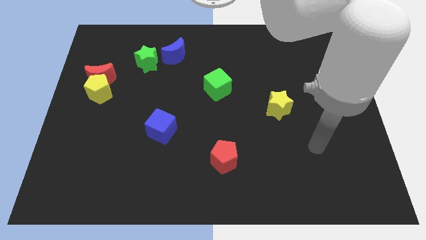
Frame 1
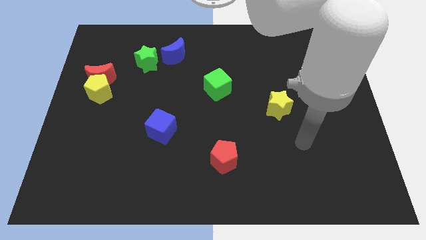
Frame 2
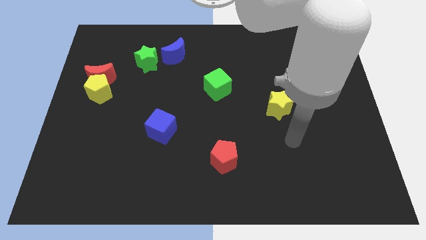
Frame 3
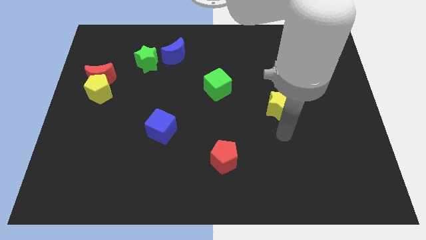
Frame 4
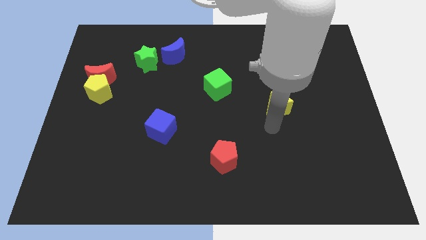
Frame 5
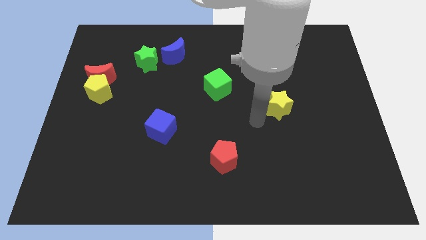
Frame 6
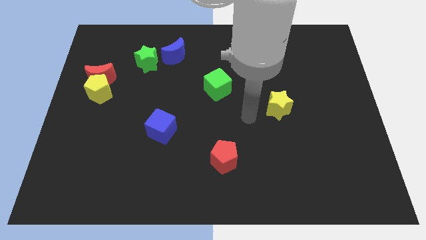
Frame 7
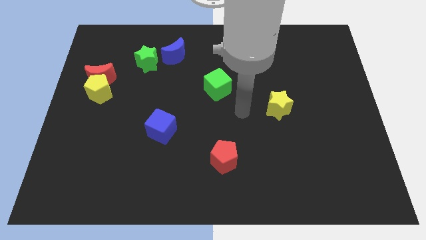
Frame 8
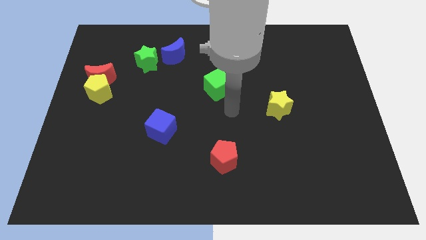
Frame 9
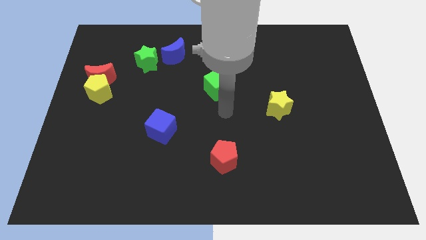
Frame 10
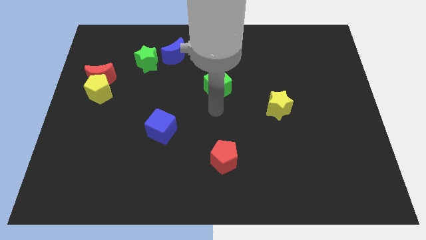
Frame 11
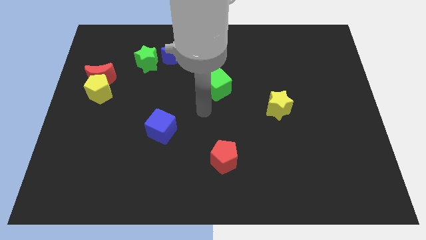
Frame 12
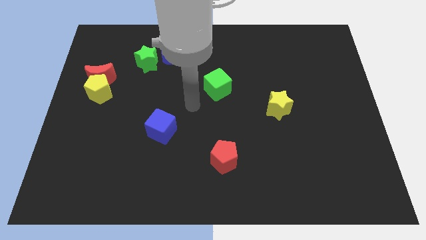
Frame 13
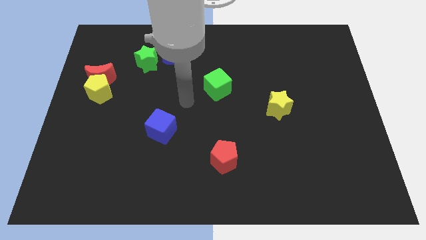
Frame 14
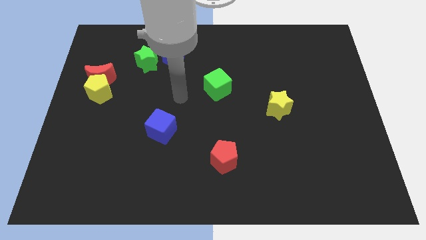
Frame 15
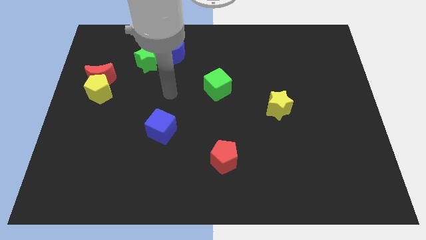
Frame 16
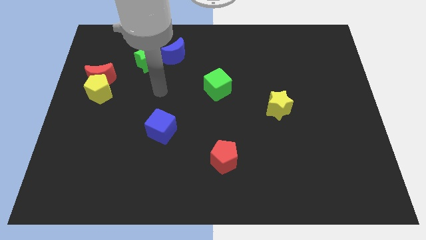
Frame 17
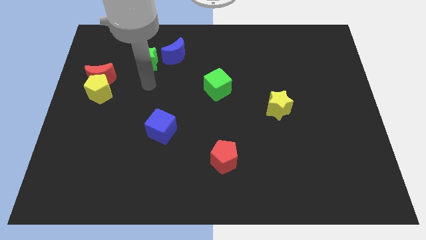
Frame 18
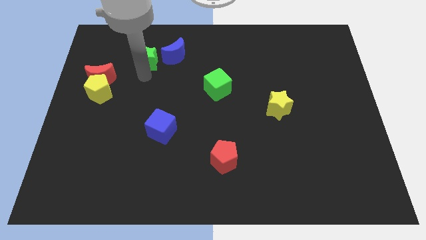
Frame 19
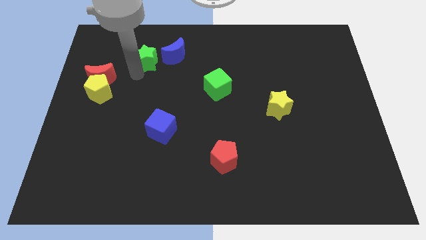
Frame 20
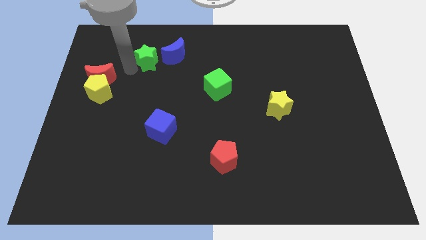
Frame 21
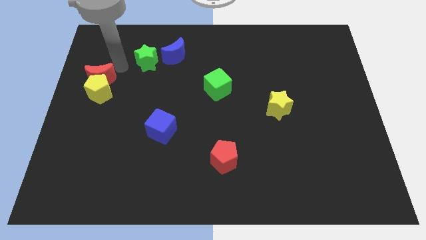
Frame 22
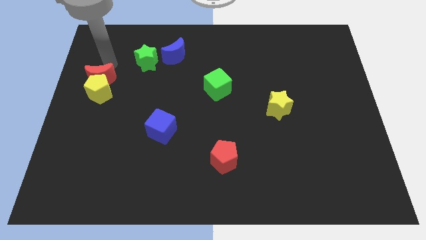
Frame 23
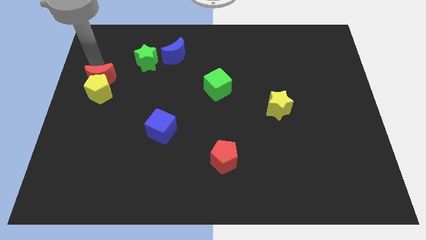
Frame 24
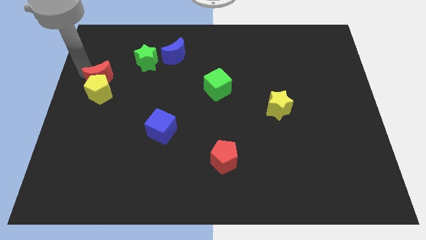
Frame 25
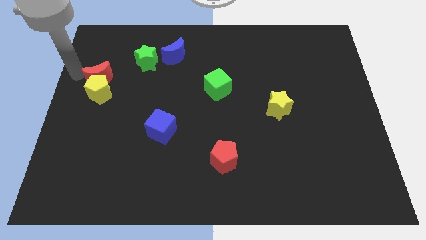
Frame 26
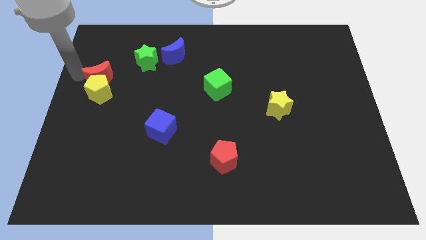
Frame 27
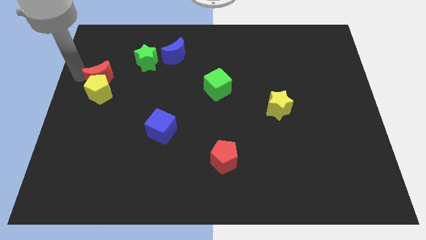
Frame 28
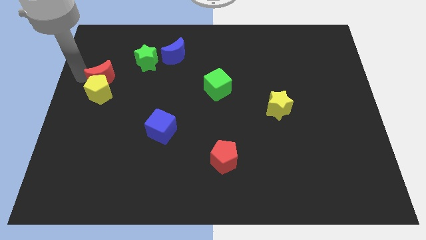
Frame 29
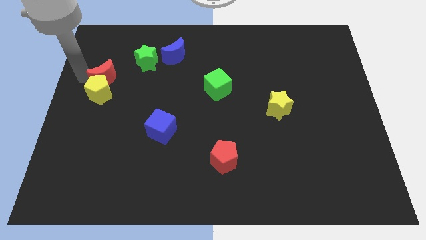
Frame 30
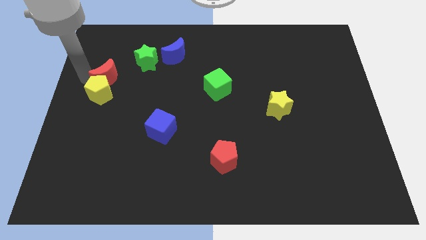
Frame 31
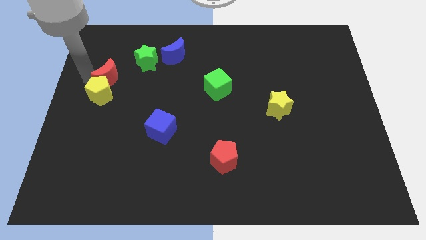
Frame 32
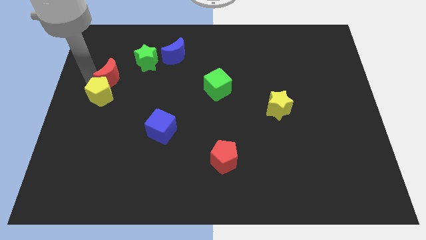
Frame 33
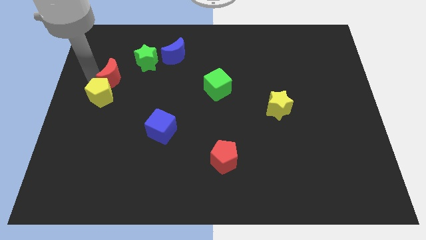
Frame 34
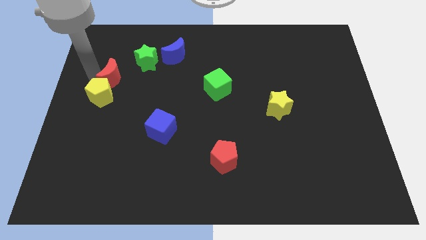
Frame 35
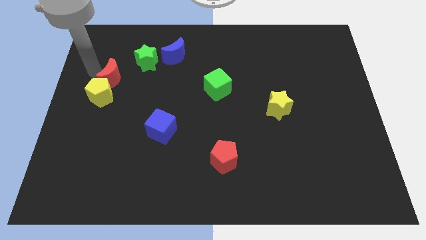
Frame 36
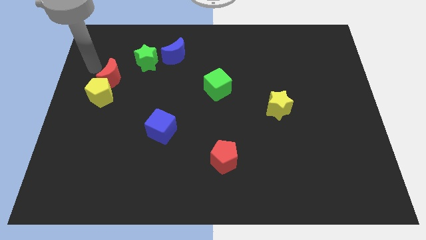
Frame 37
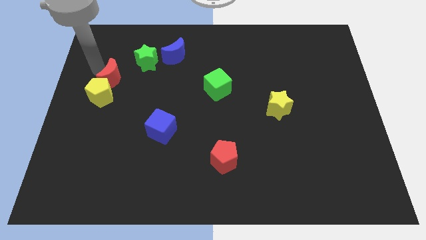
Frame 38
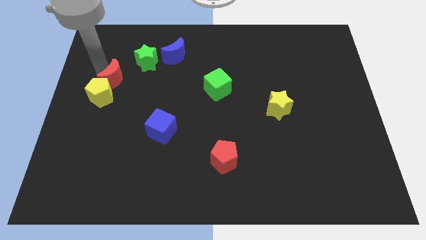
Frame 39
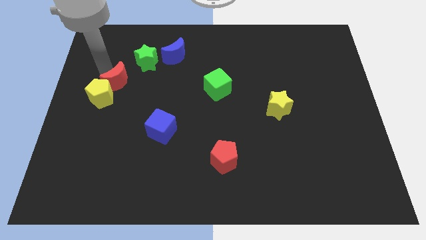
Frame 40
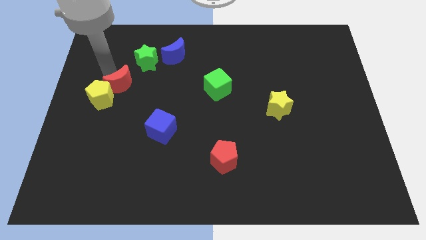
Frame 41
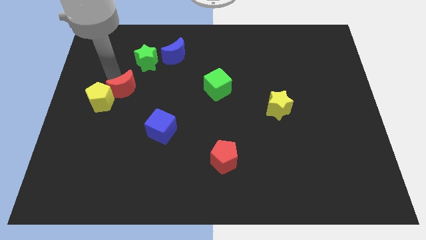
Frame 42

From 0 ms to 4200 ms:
put the red moon to the bottom side of the green star

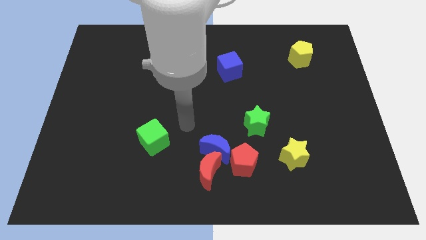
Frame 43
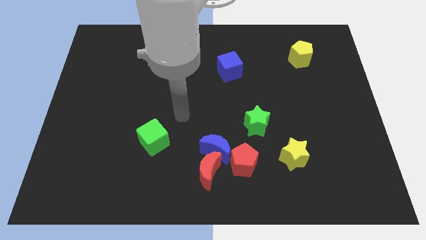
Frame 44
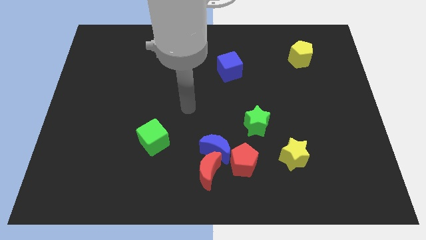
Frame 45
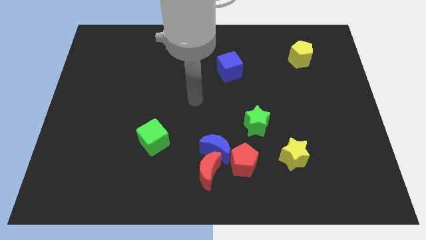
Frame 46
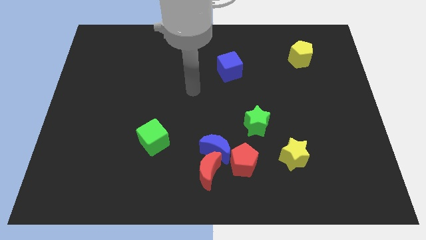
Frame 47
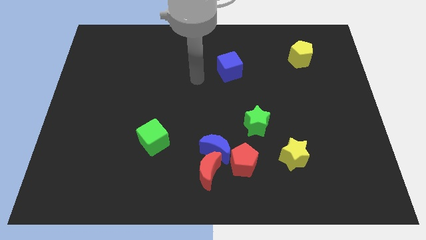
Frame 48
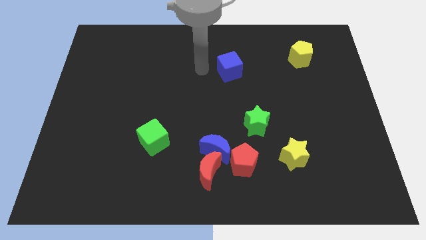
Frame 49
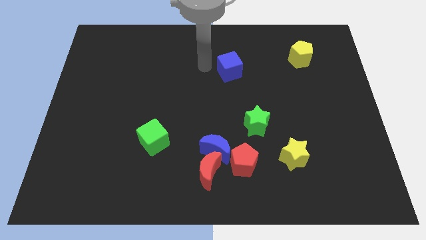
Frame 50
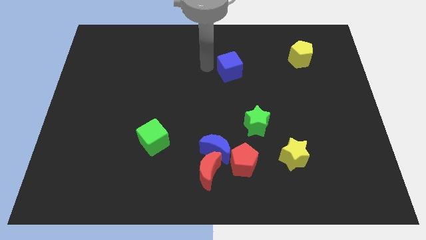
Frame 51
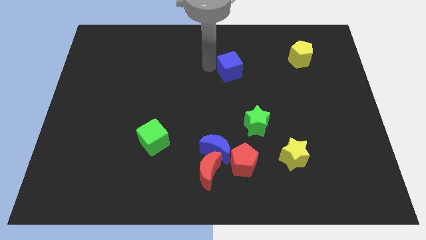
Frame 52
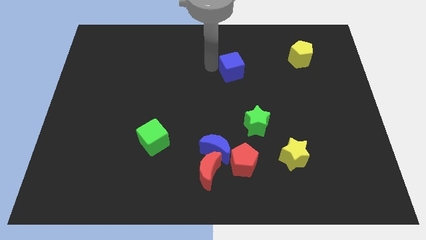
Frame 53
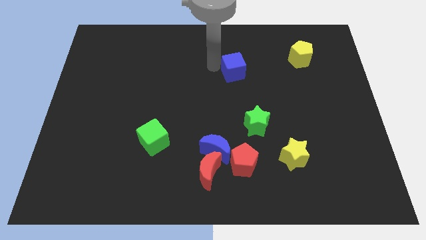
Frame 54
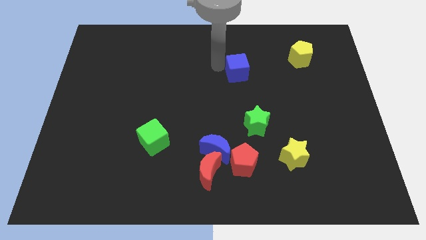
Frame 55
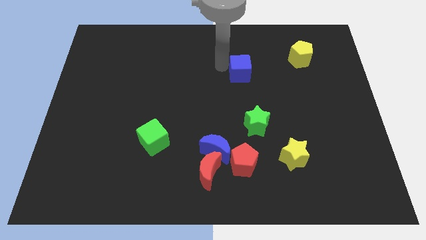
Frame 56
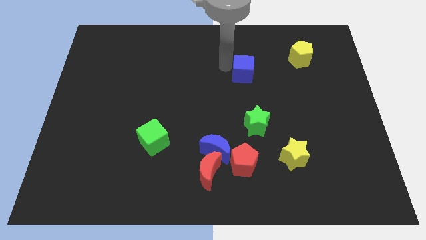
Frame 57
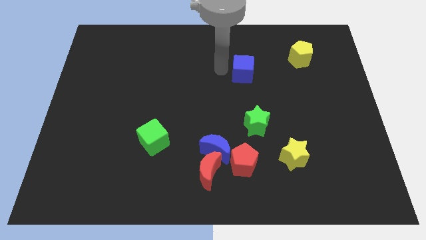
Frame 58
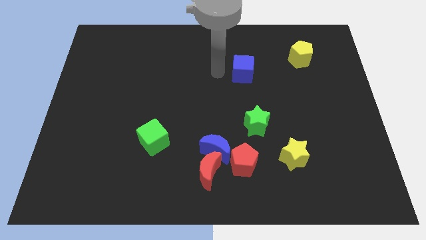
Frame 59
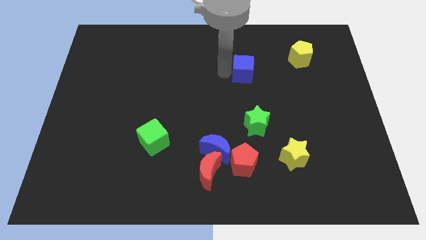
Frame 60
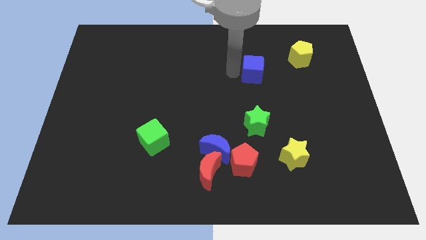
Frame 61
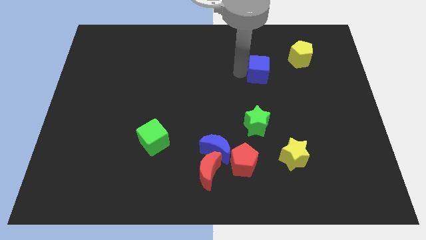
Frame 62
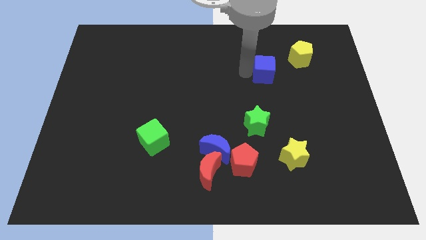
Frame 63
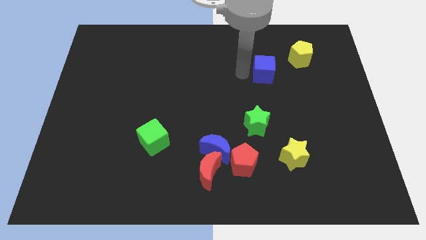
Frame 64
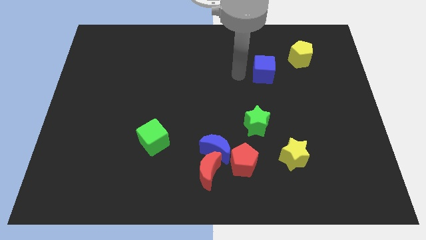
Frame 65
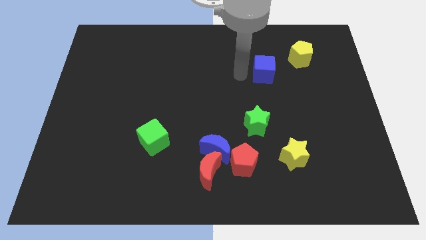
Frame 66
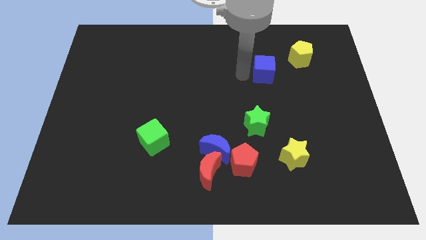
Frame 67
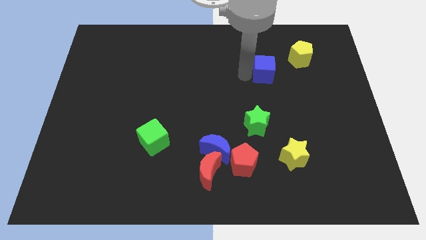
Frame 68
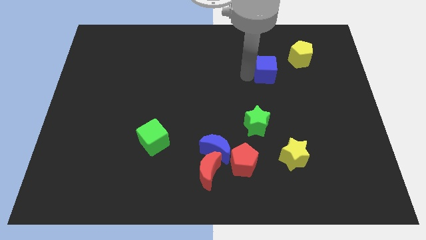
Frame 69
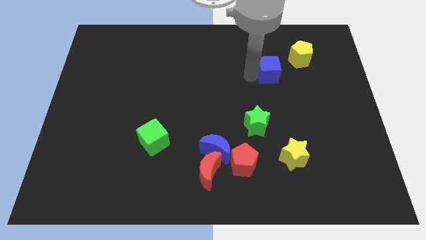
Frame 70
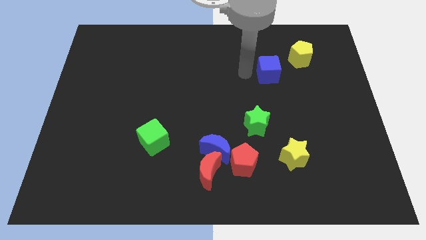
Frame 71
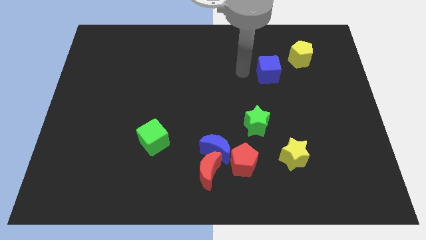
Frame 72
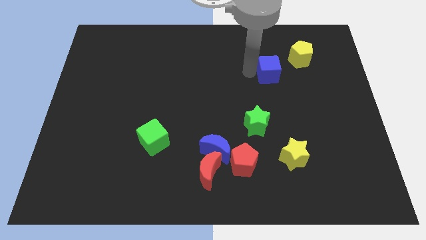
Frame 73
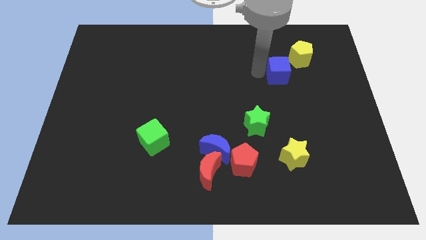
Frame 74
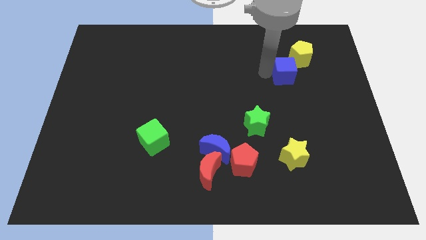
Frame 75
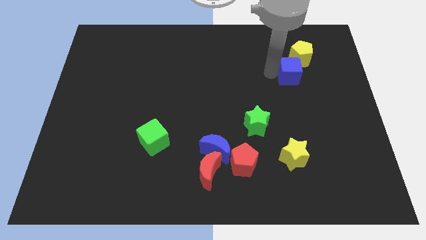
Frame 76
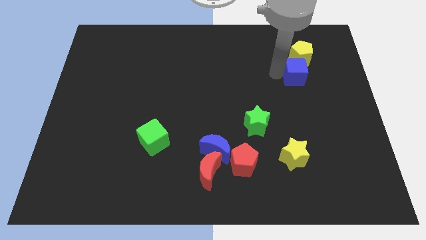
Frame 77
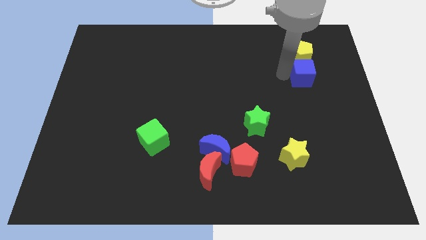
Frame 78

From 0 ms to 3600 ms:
put the blue cube to the bottom right of the yellow pentagon
